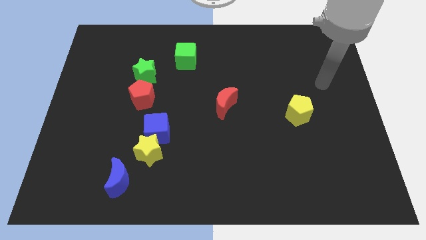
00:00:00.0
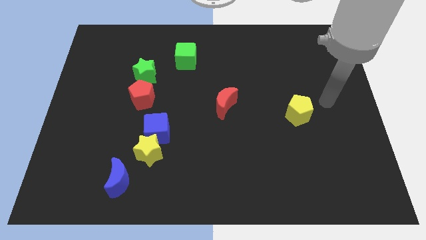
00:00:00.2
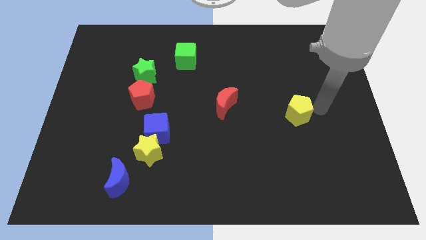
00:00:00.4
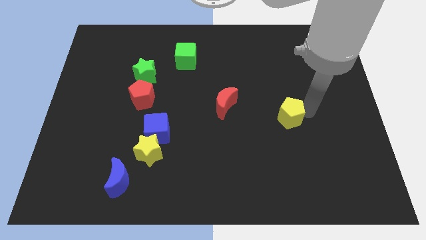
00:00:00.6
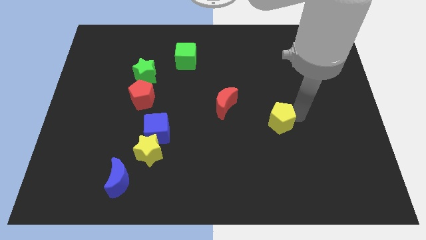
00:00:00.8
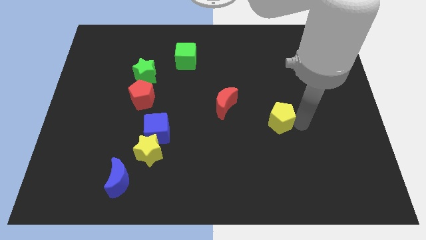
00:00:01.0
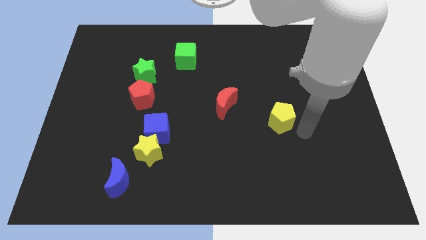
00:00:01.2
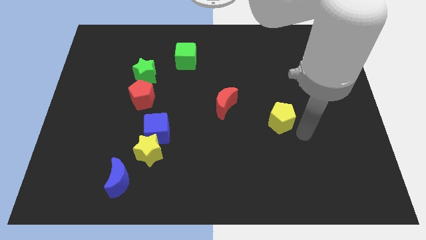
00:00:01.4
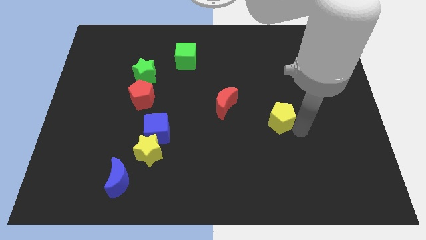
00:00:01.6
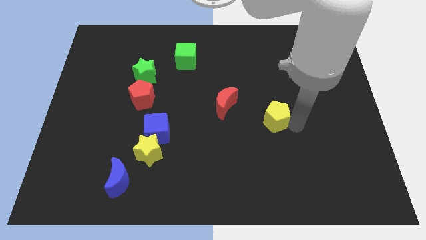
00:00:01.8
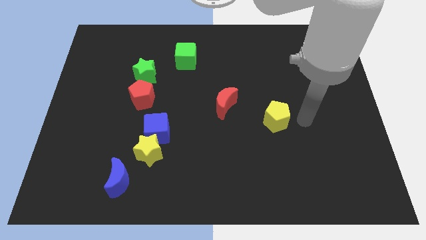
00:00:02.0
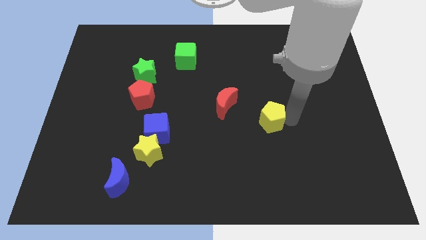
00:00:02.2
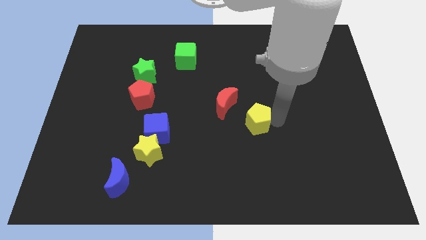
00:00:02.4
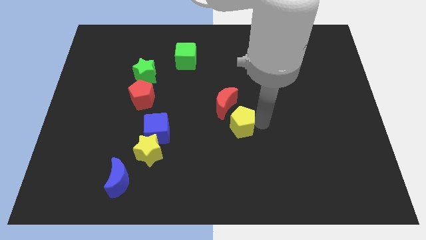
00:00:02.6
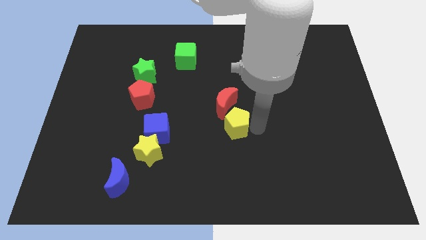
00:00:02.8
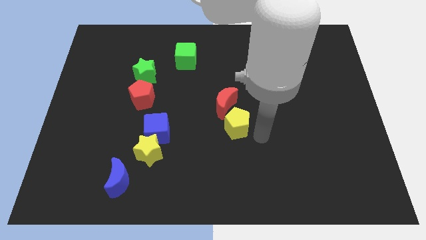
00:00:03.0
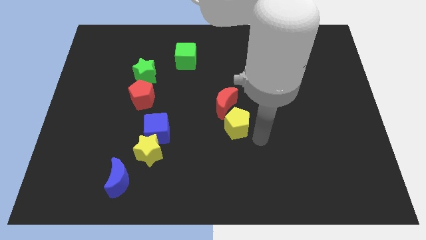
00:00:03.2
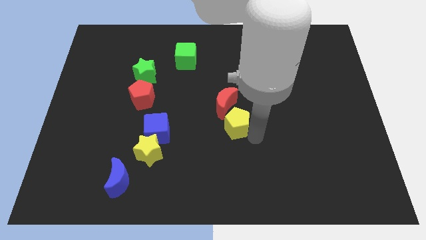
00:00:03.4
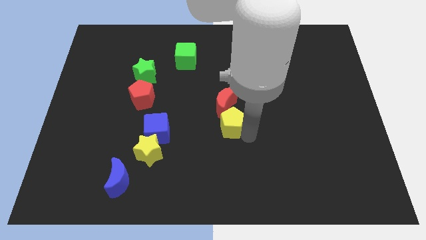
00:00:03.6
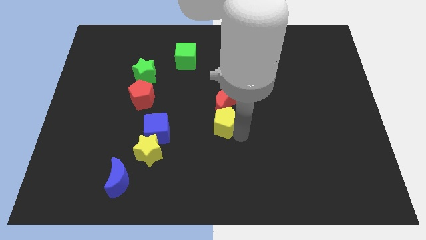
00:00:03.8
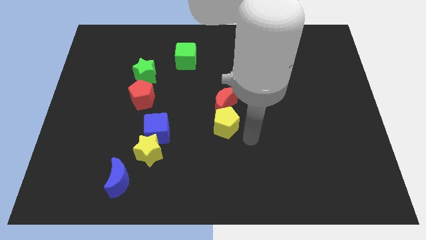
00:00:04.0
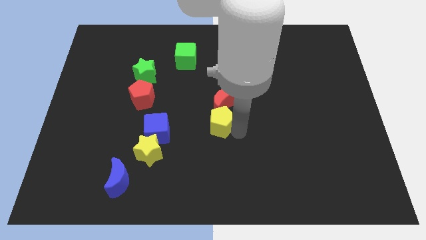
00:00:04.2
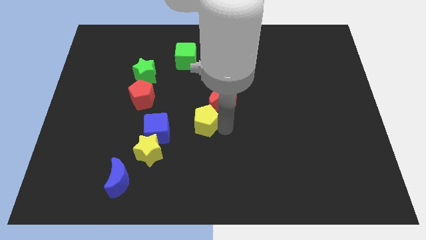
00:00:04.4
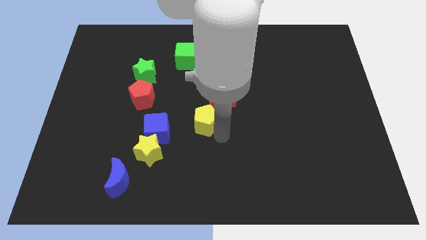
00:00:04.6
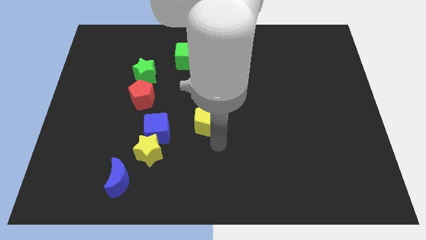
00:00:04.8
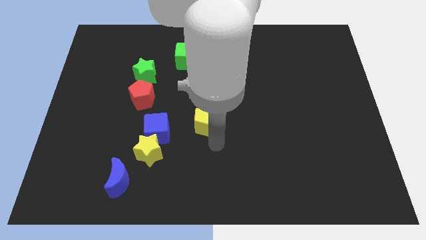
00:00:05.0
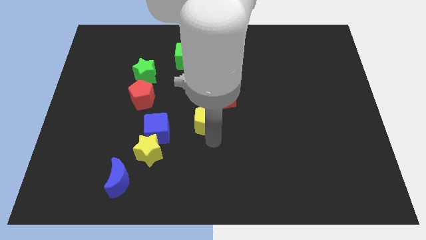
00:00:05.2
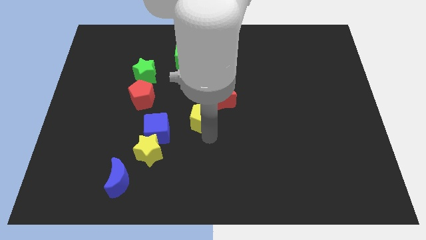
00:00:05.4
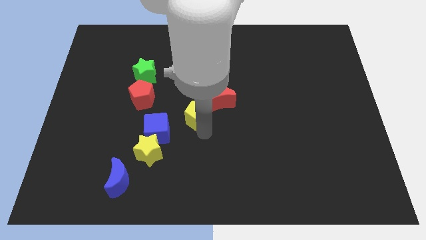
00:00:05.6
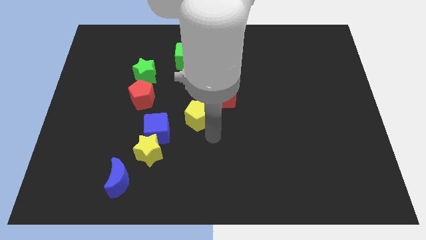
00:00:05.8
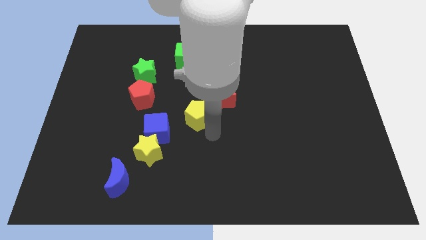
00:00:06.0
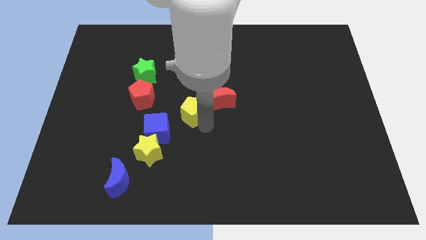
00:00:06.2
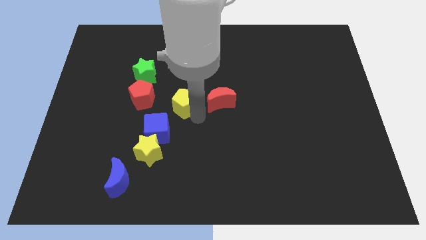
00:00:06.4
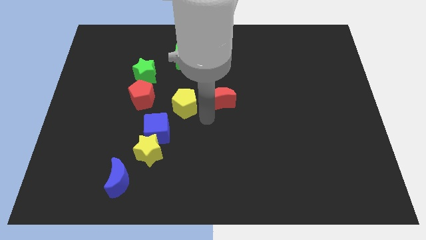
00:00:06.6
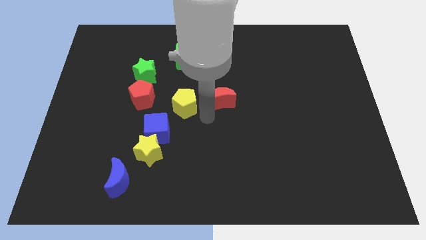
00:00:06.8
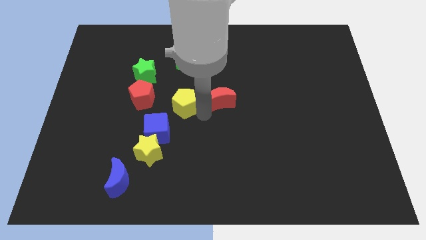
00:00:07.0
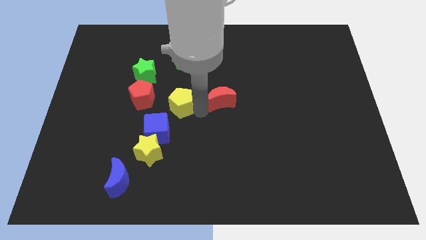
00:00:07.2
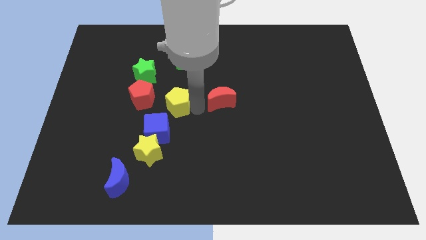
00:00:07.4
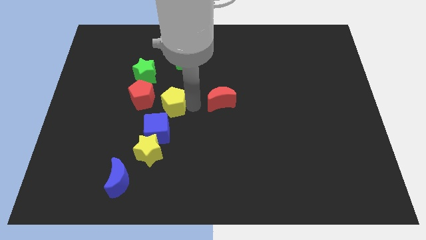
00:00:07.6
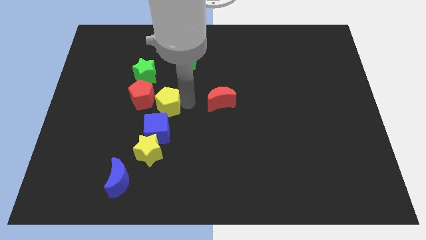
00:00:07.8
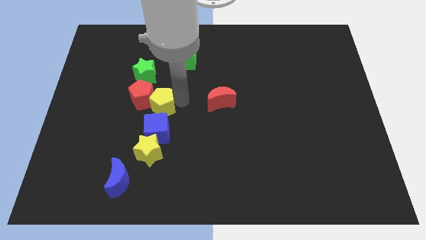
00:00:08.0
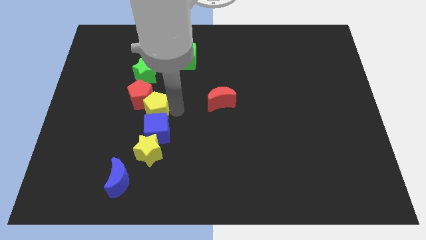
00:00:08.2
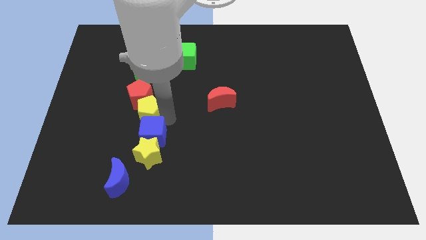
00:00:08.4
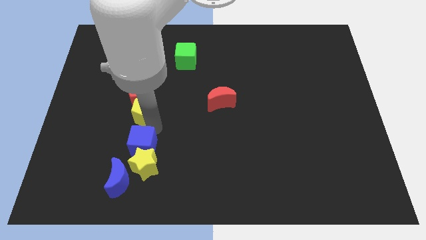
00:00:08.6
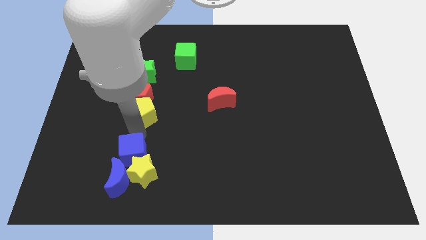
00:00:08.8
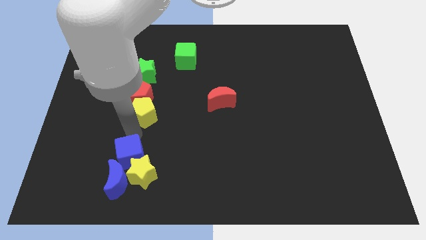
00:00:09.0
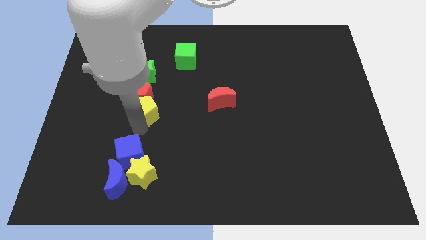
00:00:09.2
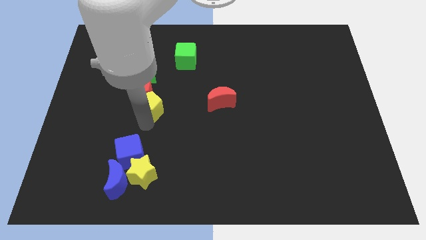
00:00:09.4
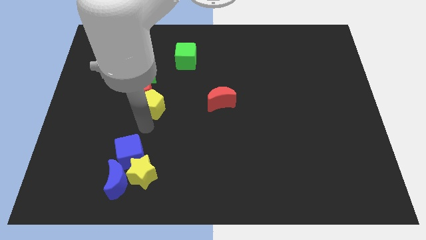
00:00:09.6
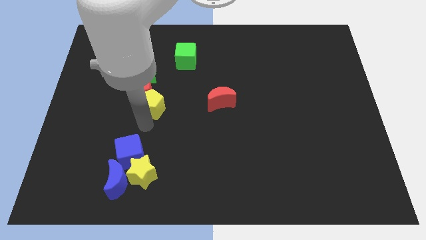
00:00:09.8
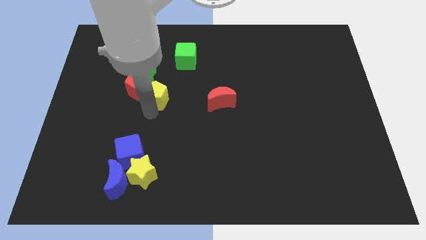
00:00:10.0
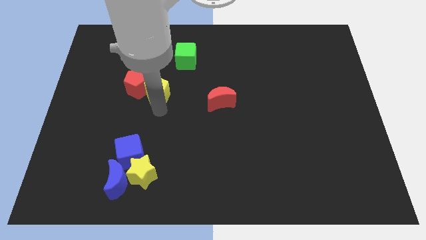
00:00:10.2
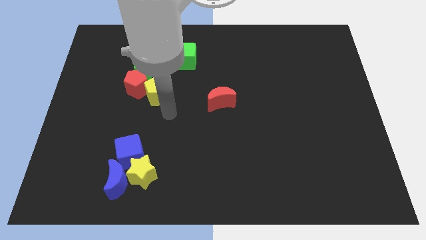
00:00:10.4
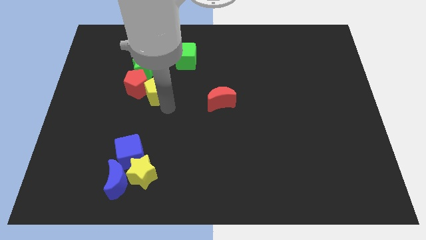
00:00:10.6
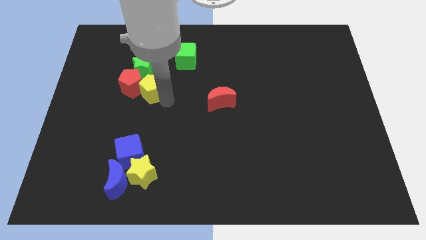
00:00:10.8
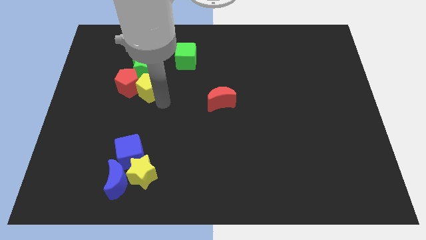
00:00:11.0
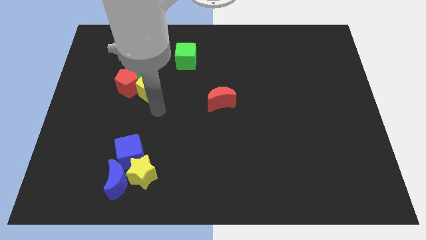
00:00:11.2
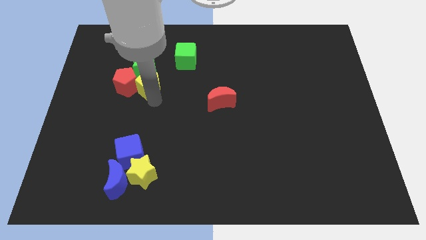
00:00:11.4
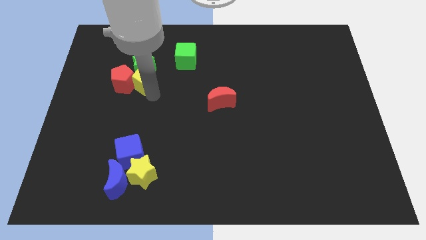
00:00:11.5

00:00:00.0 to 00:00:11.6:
push the yellow pentagon towards the green star

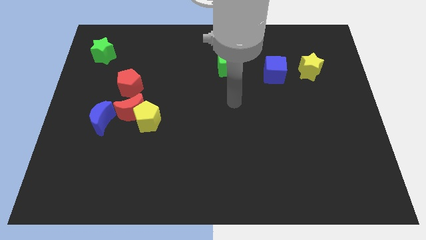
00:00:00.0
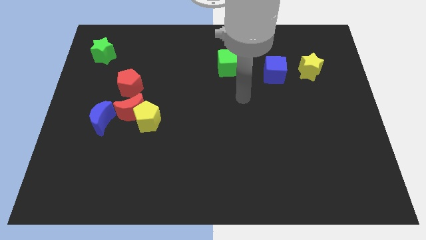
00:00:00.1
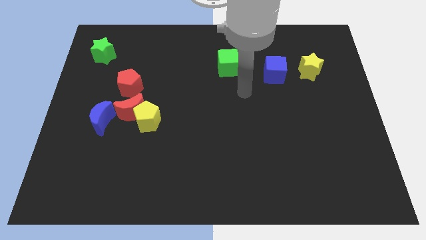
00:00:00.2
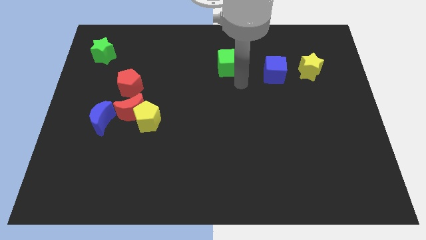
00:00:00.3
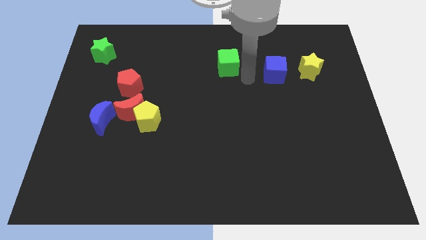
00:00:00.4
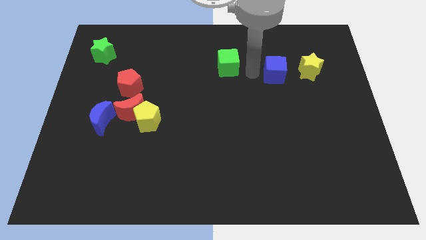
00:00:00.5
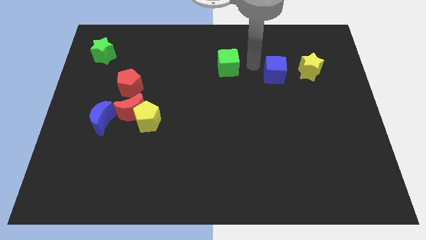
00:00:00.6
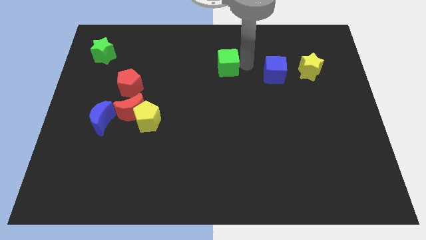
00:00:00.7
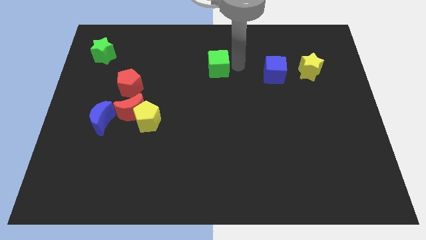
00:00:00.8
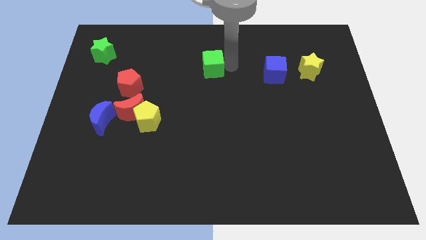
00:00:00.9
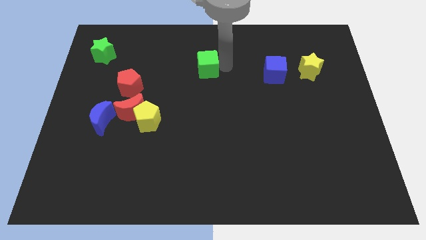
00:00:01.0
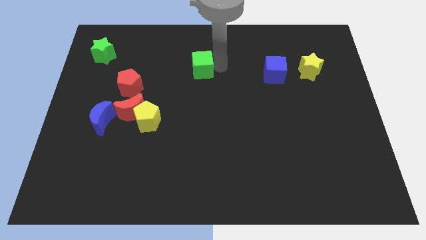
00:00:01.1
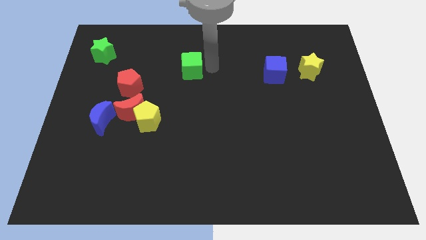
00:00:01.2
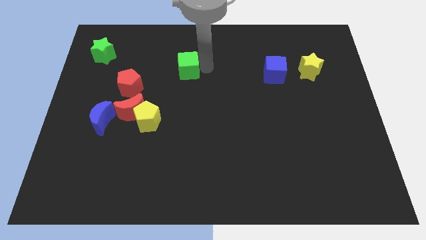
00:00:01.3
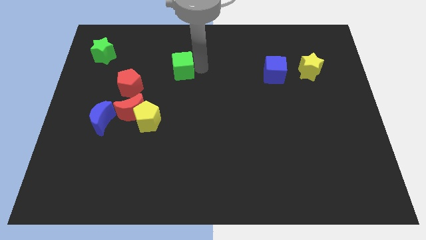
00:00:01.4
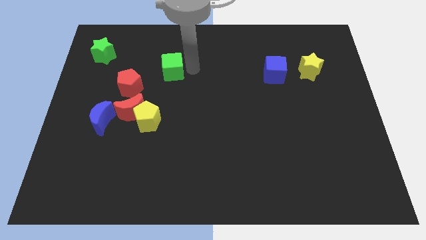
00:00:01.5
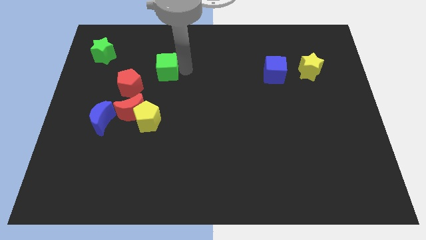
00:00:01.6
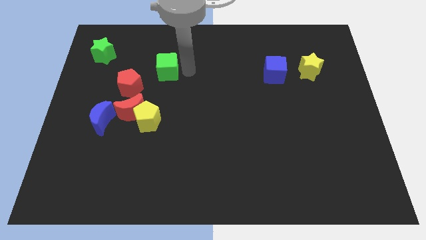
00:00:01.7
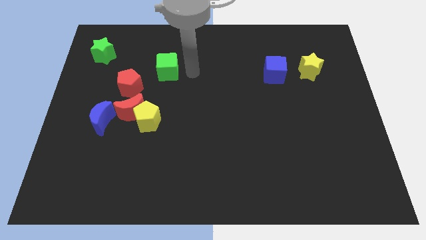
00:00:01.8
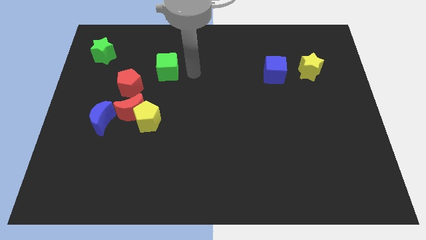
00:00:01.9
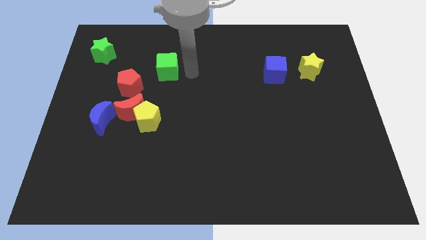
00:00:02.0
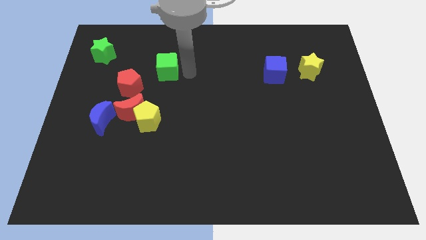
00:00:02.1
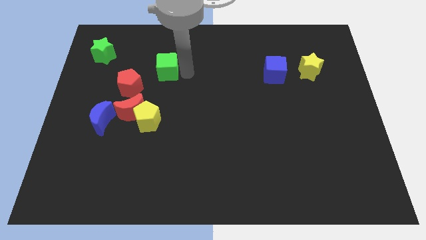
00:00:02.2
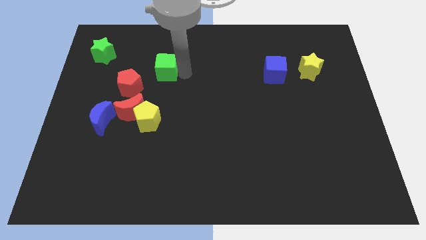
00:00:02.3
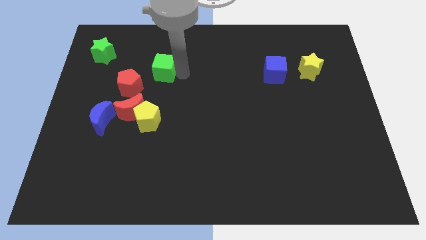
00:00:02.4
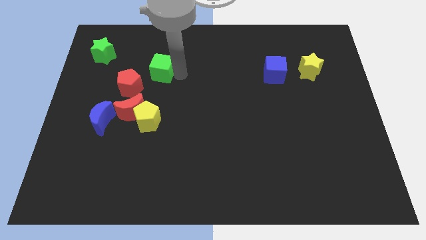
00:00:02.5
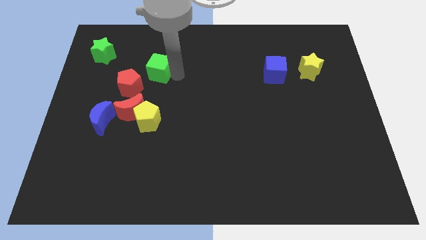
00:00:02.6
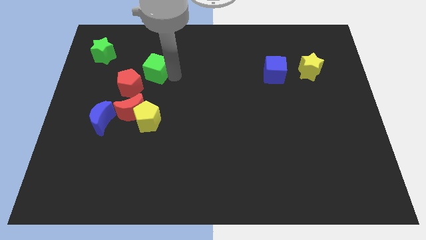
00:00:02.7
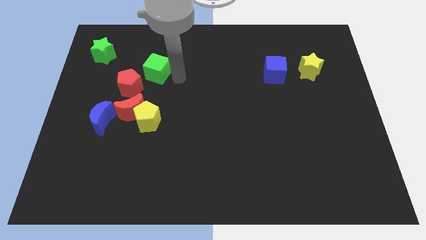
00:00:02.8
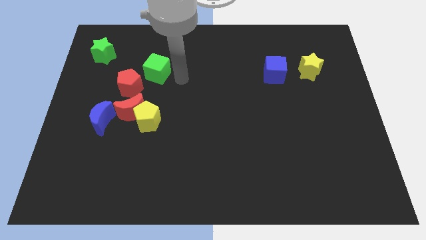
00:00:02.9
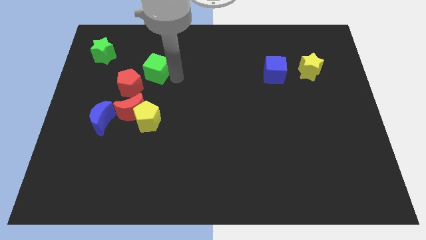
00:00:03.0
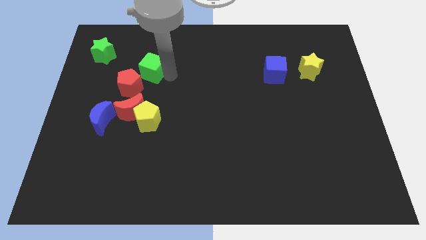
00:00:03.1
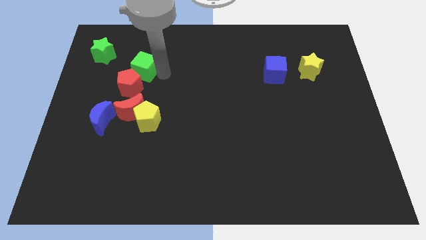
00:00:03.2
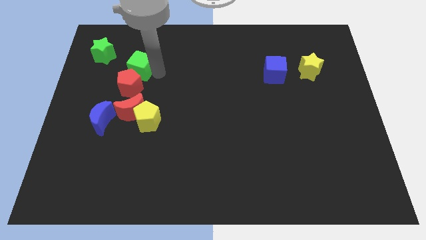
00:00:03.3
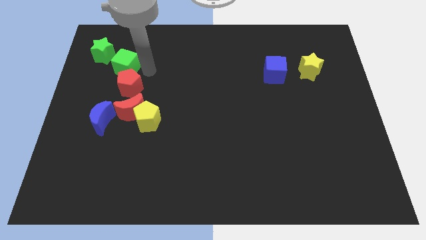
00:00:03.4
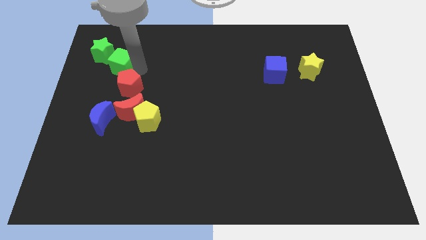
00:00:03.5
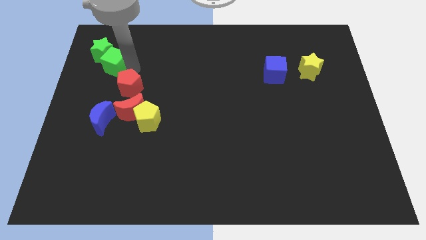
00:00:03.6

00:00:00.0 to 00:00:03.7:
move the green cube next to the green star
